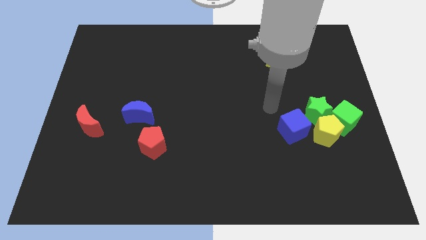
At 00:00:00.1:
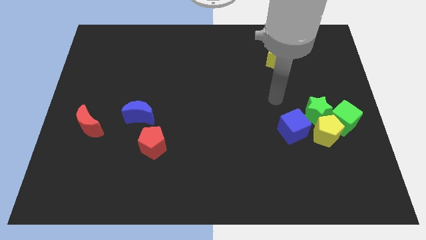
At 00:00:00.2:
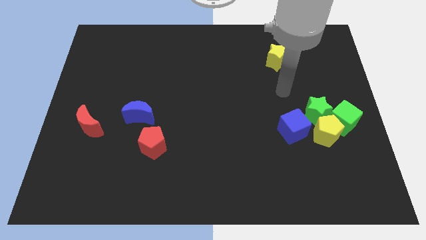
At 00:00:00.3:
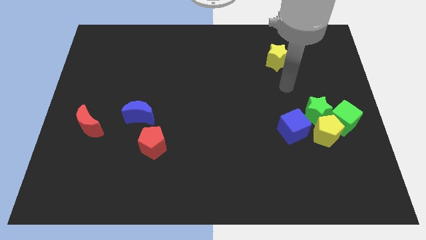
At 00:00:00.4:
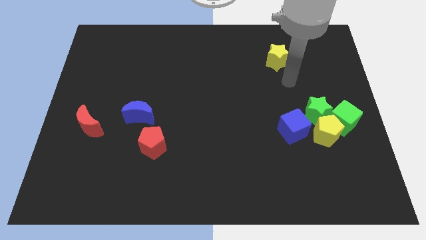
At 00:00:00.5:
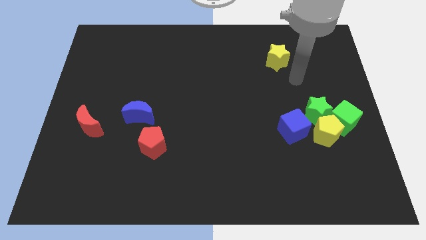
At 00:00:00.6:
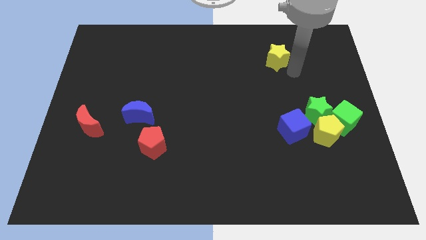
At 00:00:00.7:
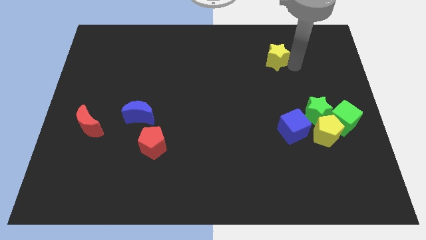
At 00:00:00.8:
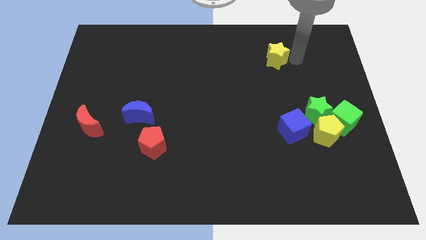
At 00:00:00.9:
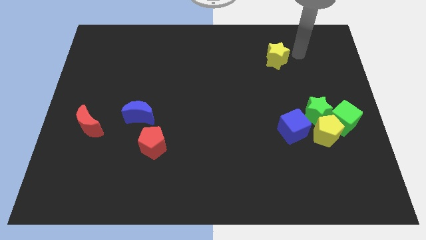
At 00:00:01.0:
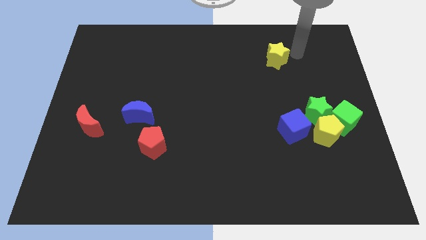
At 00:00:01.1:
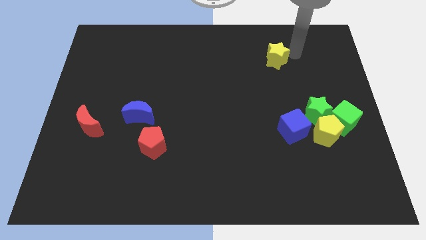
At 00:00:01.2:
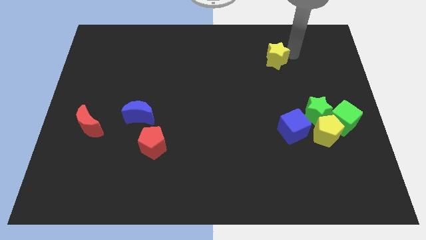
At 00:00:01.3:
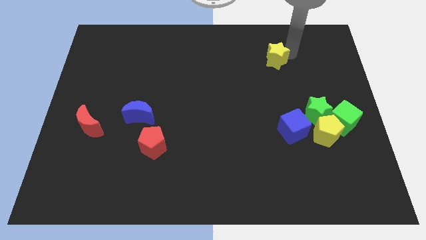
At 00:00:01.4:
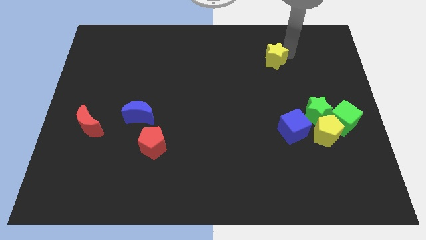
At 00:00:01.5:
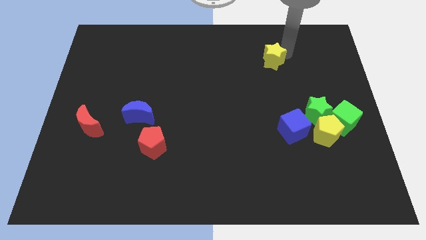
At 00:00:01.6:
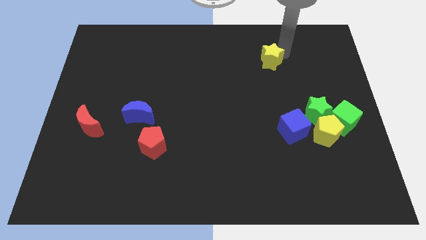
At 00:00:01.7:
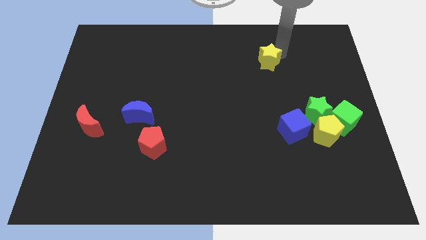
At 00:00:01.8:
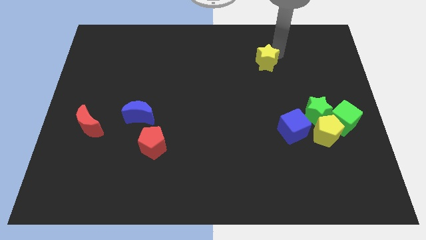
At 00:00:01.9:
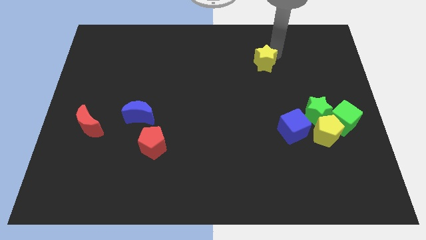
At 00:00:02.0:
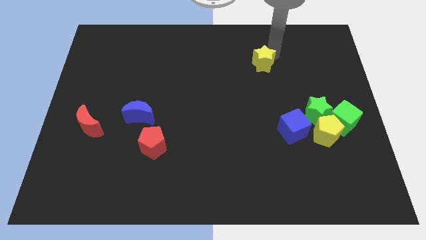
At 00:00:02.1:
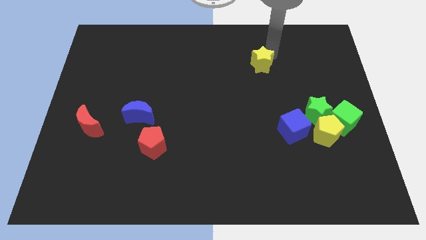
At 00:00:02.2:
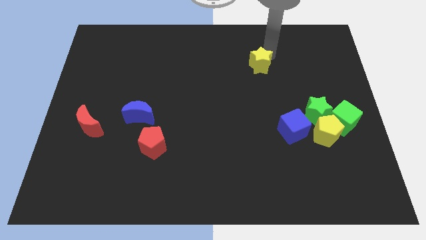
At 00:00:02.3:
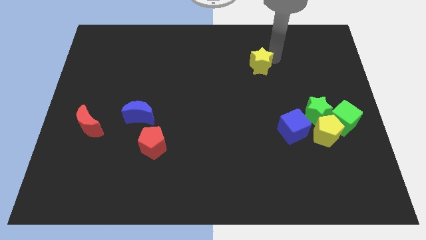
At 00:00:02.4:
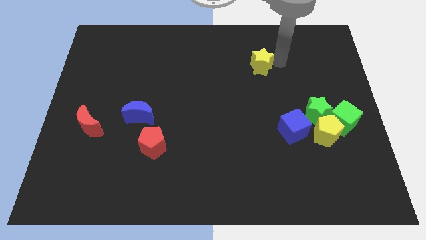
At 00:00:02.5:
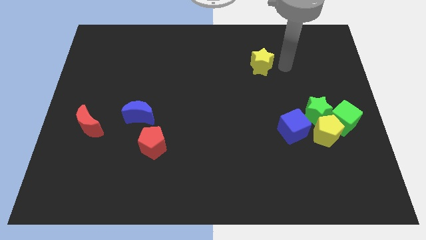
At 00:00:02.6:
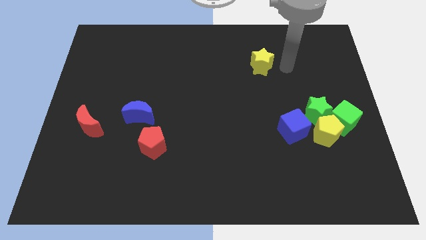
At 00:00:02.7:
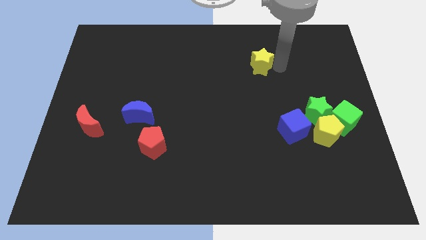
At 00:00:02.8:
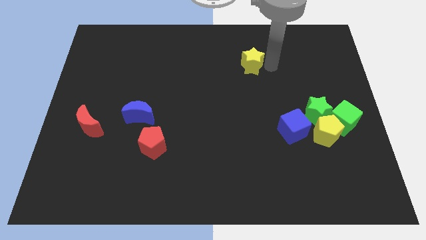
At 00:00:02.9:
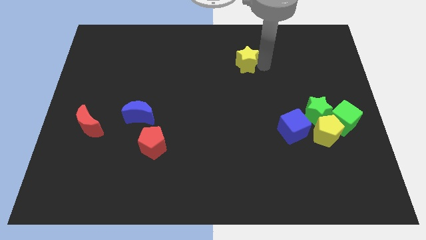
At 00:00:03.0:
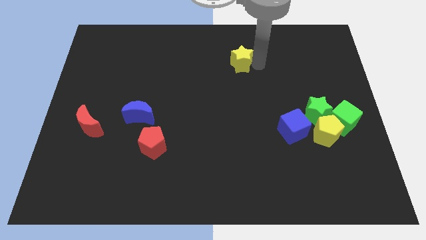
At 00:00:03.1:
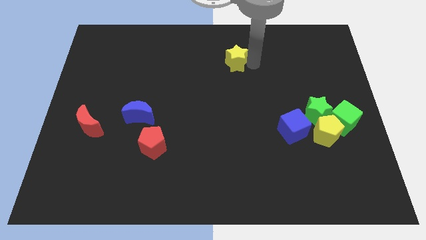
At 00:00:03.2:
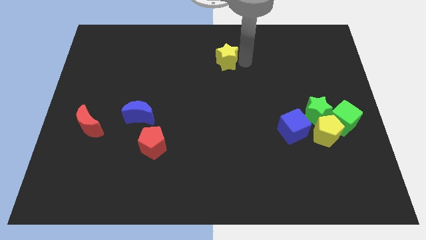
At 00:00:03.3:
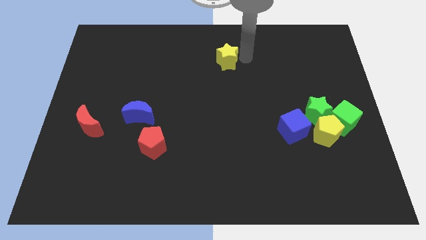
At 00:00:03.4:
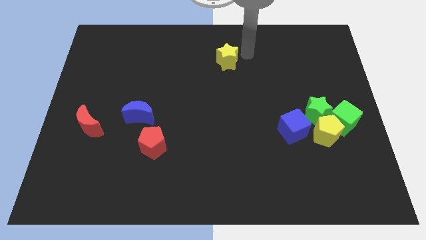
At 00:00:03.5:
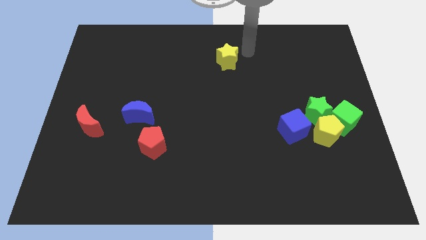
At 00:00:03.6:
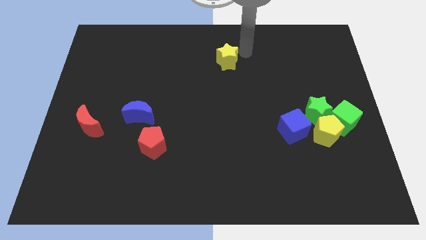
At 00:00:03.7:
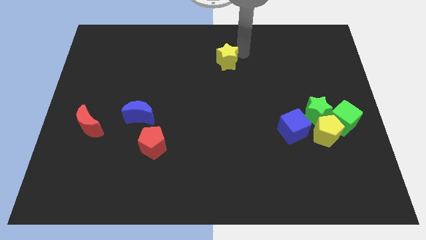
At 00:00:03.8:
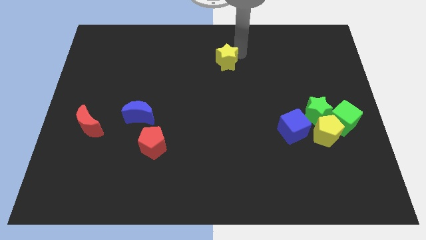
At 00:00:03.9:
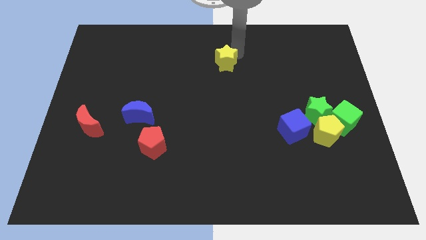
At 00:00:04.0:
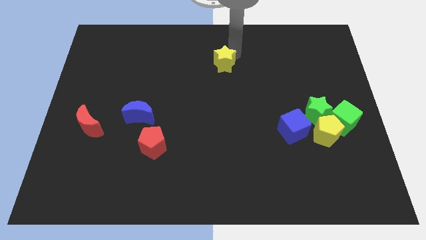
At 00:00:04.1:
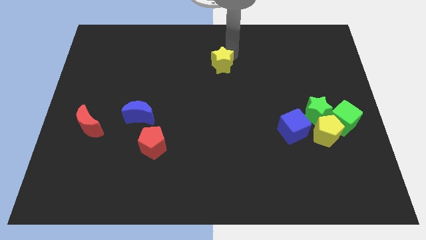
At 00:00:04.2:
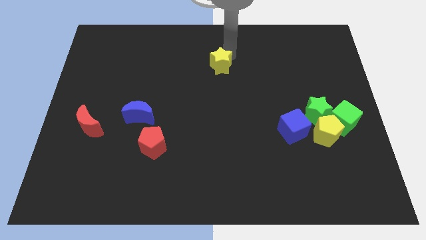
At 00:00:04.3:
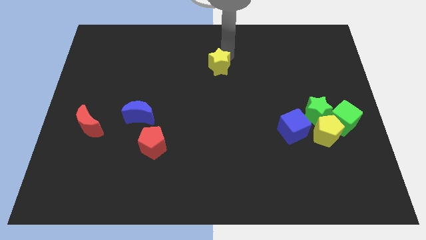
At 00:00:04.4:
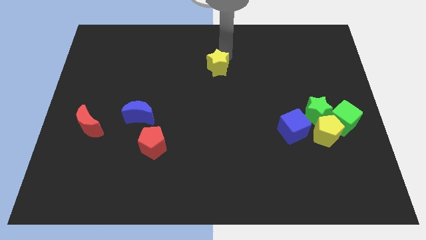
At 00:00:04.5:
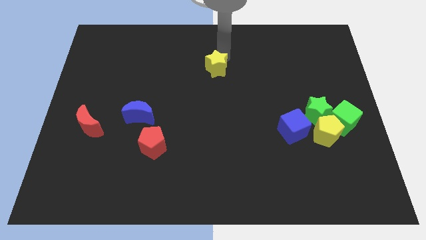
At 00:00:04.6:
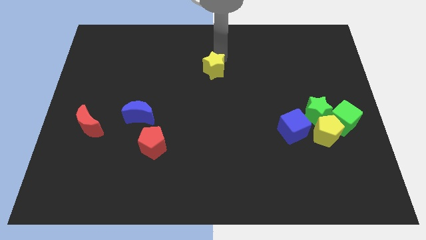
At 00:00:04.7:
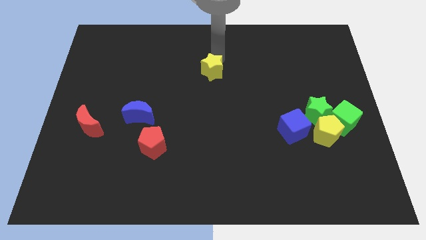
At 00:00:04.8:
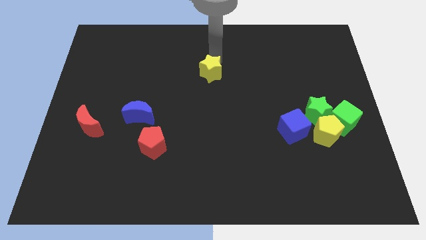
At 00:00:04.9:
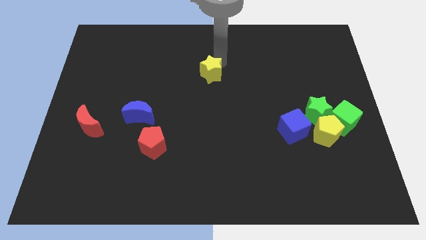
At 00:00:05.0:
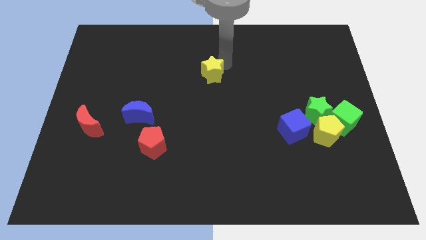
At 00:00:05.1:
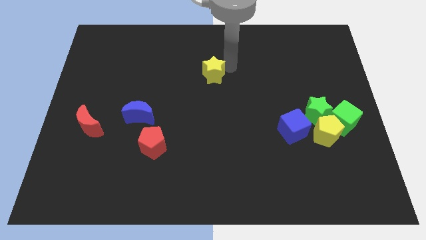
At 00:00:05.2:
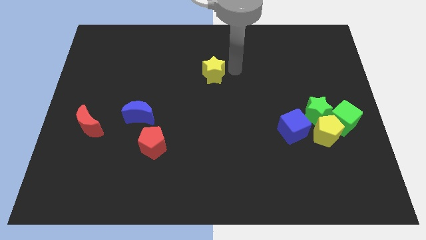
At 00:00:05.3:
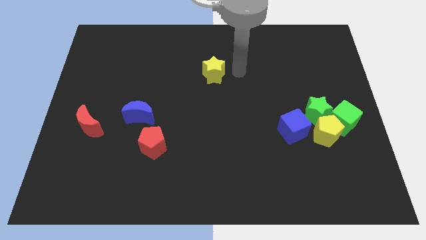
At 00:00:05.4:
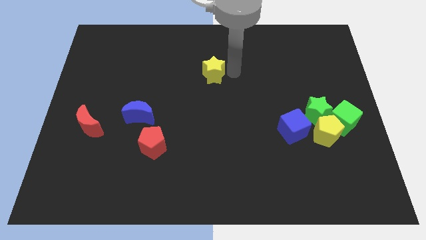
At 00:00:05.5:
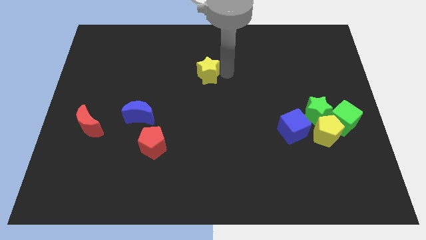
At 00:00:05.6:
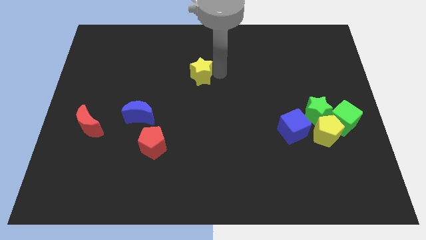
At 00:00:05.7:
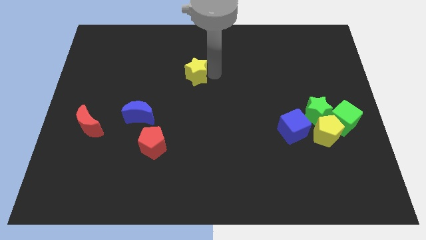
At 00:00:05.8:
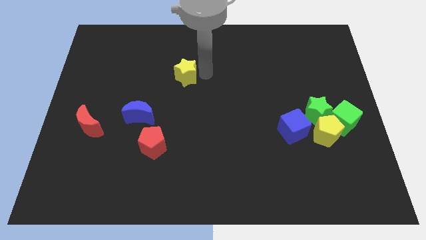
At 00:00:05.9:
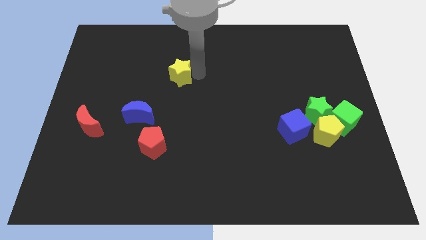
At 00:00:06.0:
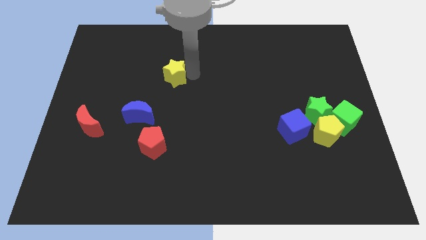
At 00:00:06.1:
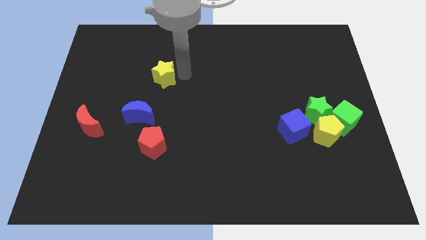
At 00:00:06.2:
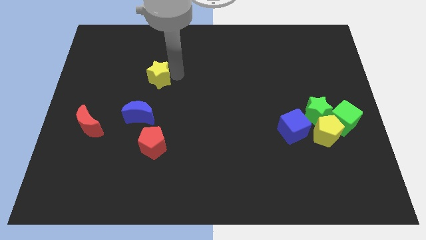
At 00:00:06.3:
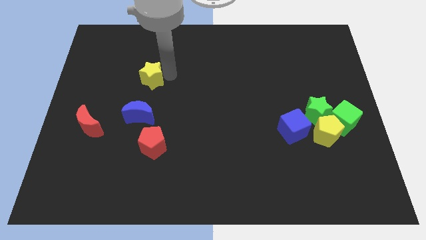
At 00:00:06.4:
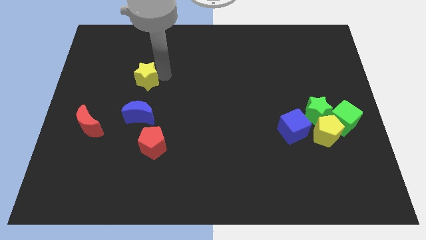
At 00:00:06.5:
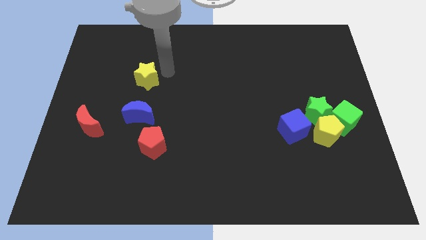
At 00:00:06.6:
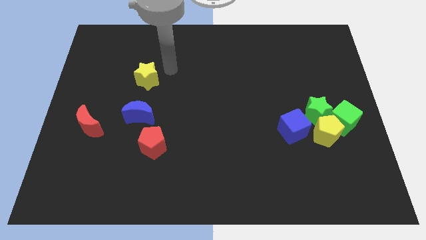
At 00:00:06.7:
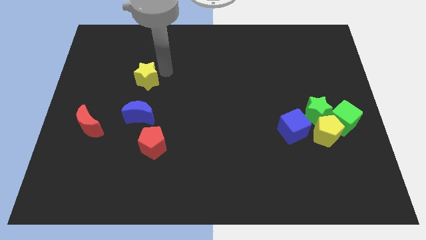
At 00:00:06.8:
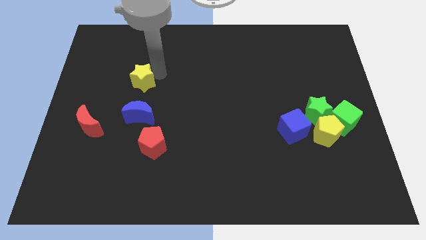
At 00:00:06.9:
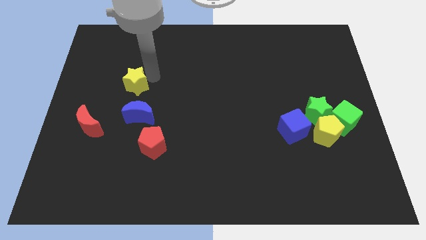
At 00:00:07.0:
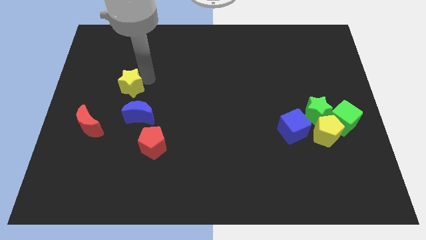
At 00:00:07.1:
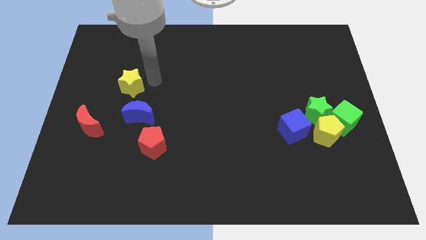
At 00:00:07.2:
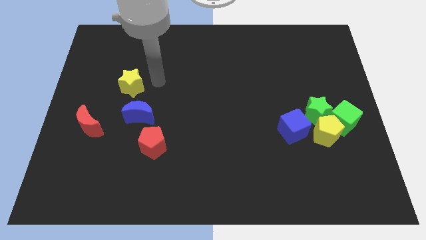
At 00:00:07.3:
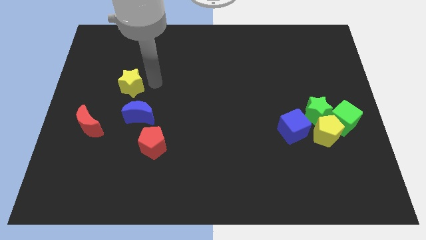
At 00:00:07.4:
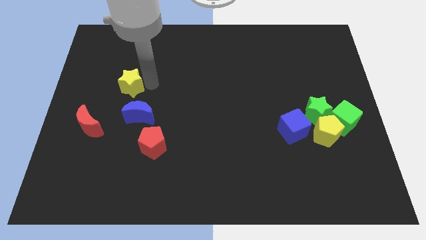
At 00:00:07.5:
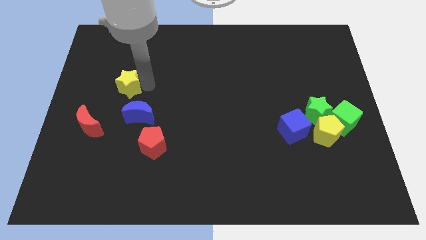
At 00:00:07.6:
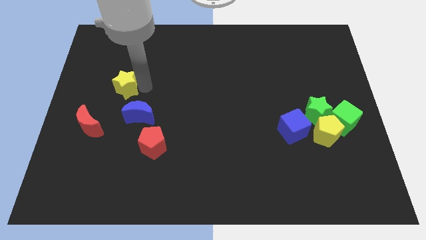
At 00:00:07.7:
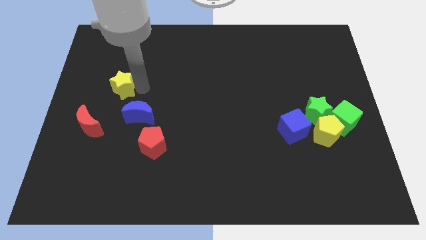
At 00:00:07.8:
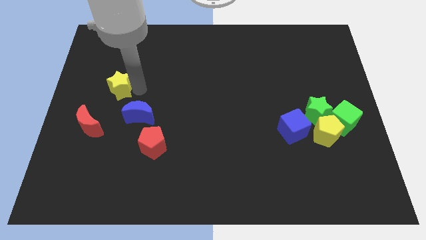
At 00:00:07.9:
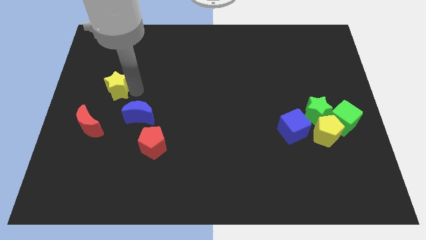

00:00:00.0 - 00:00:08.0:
put the yellow star above the red moon
